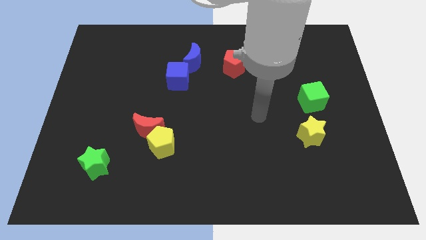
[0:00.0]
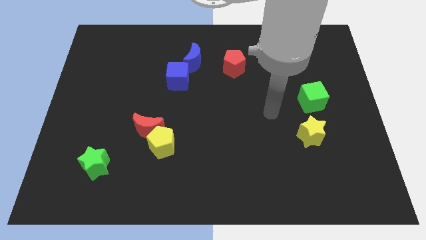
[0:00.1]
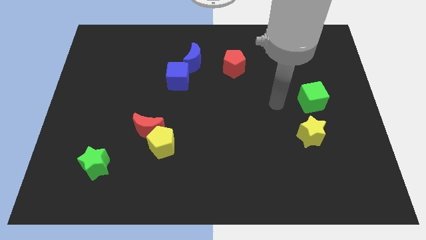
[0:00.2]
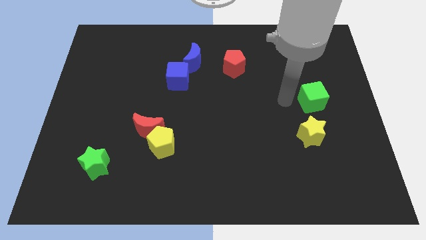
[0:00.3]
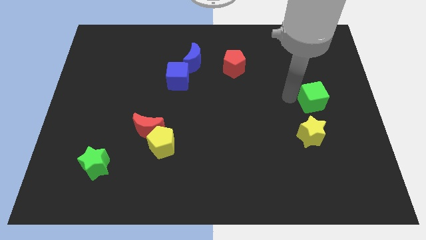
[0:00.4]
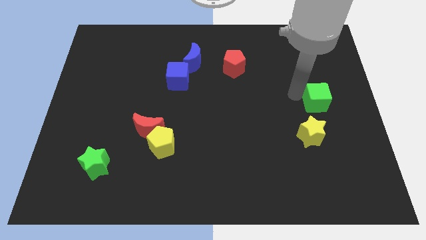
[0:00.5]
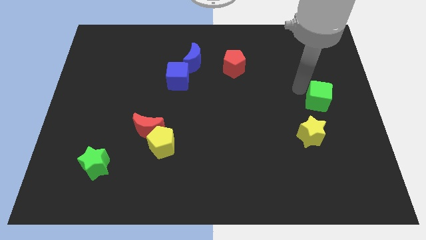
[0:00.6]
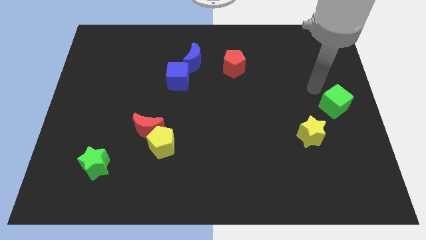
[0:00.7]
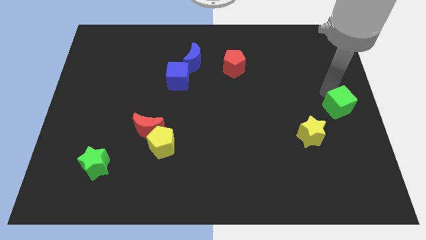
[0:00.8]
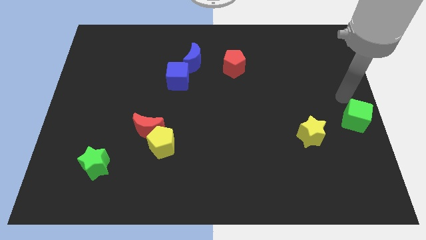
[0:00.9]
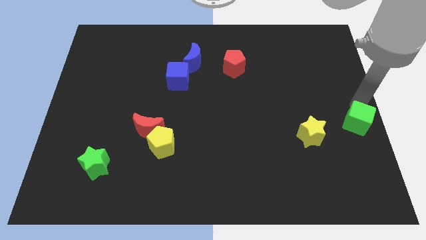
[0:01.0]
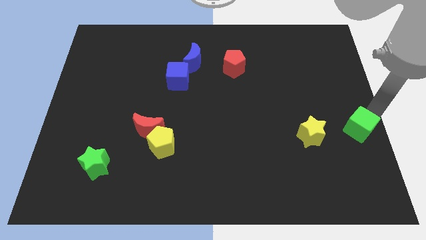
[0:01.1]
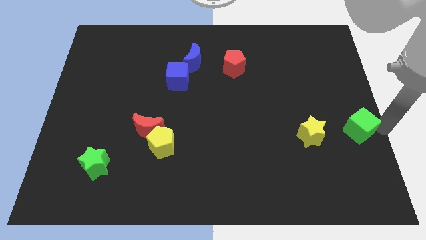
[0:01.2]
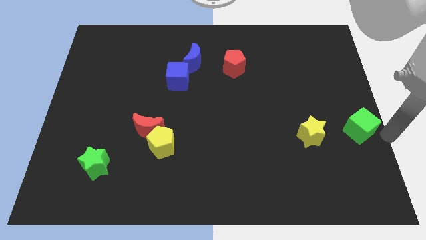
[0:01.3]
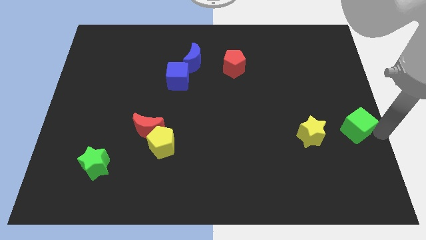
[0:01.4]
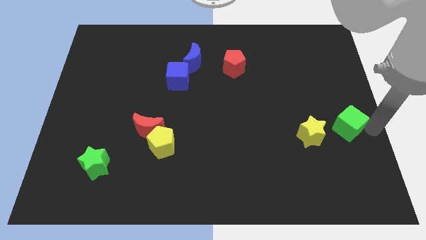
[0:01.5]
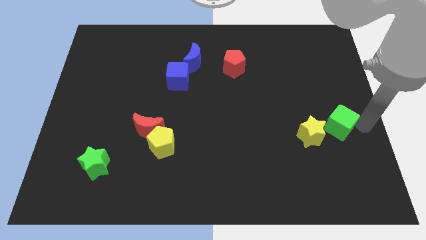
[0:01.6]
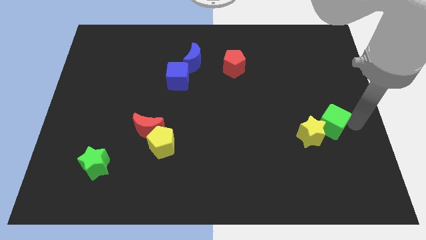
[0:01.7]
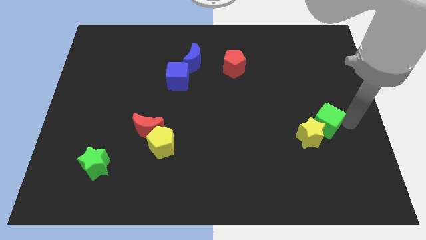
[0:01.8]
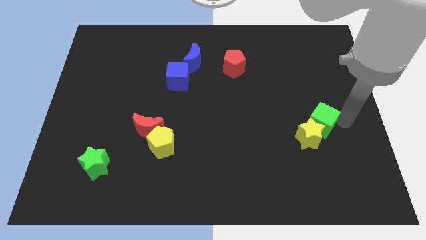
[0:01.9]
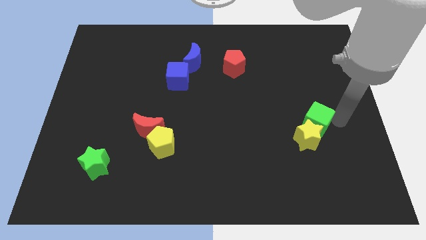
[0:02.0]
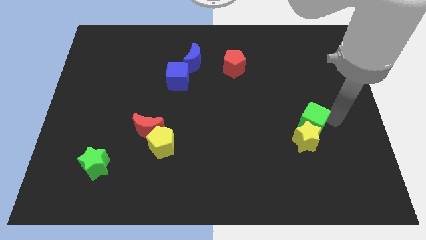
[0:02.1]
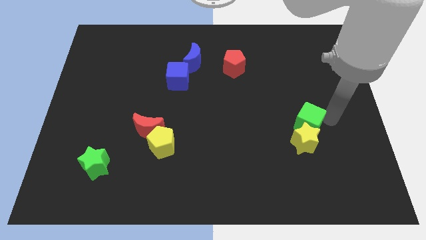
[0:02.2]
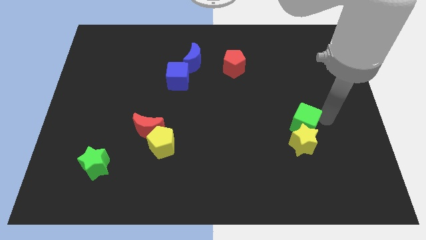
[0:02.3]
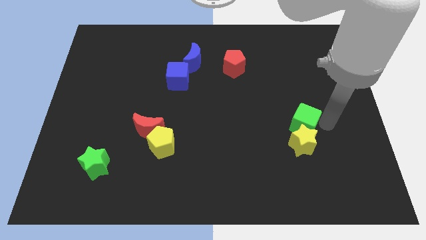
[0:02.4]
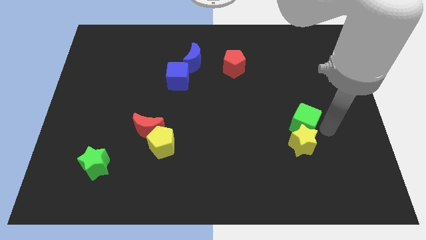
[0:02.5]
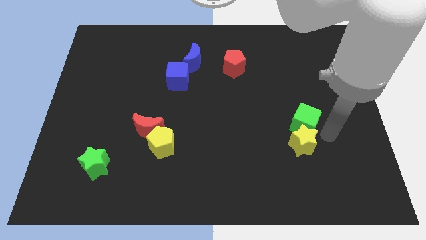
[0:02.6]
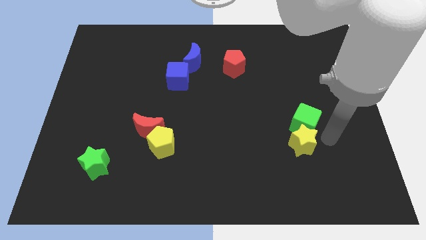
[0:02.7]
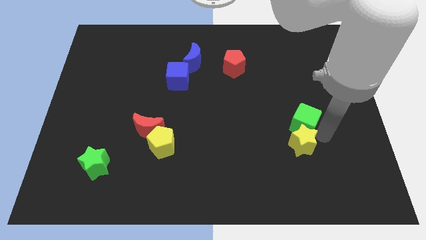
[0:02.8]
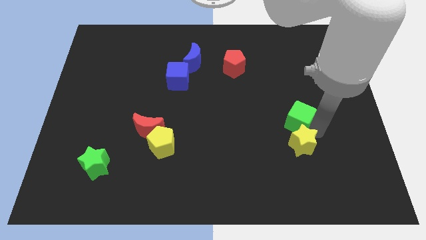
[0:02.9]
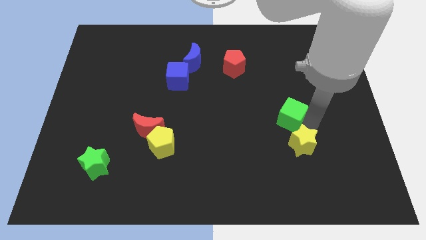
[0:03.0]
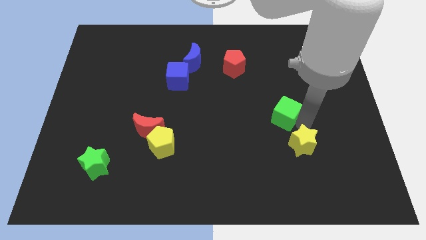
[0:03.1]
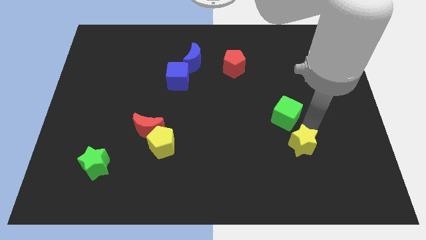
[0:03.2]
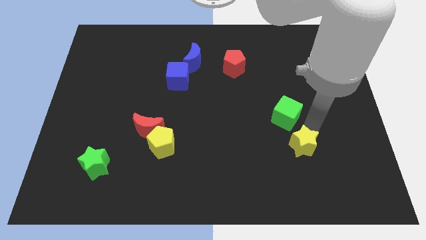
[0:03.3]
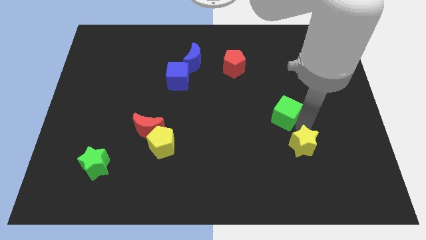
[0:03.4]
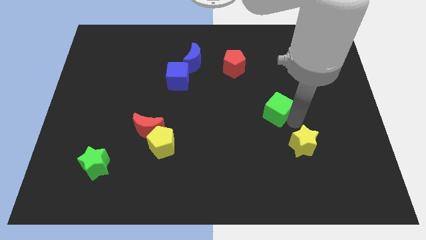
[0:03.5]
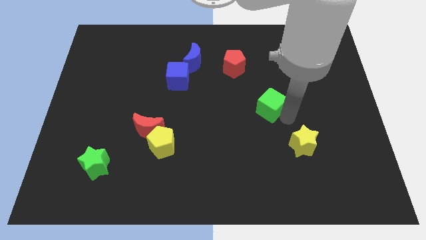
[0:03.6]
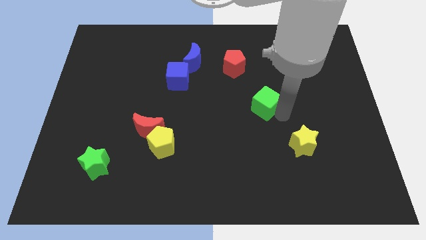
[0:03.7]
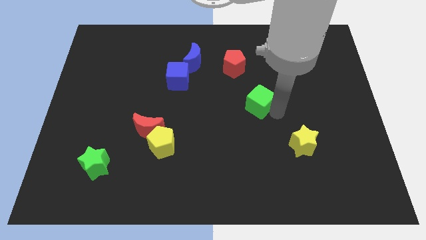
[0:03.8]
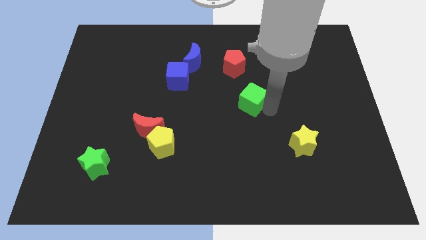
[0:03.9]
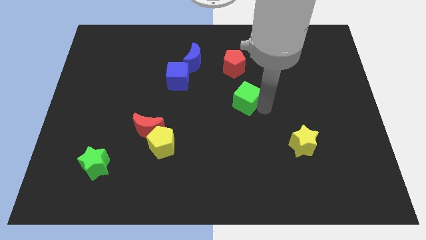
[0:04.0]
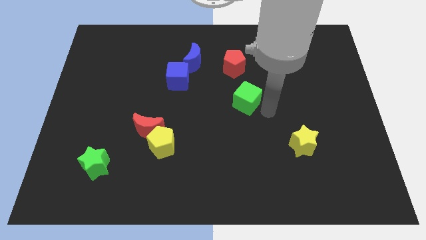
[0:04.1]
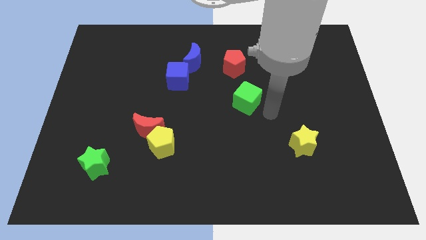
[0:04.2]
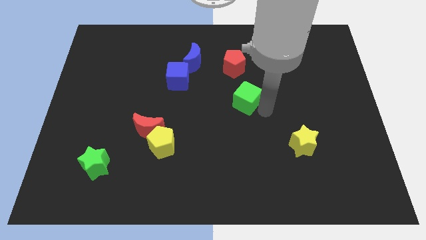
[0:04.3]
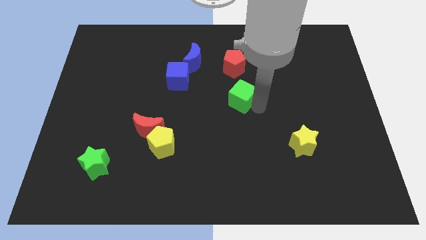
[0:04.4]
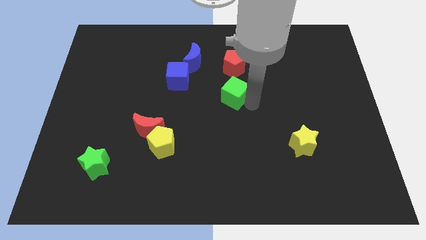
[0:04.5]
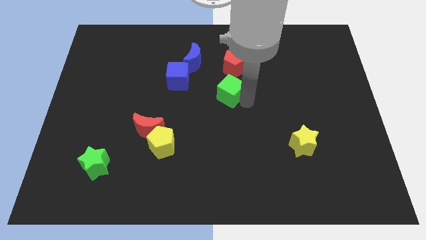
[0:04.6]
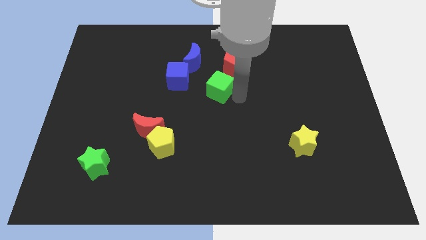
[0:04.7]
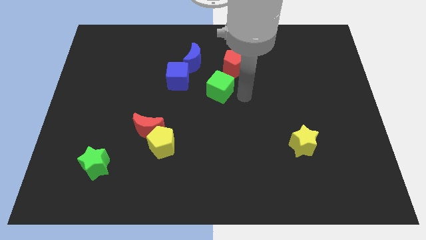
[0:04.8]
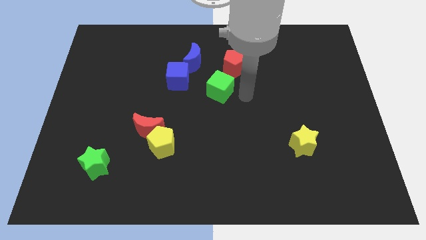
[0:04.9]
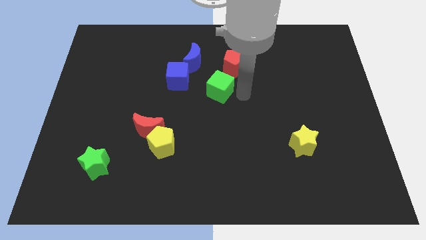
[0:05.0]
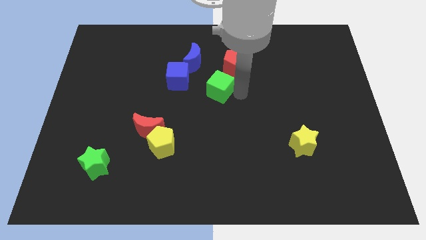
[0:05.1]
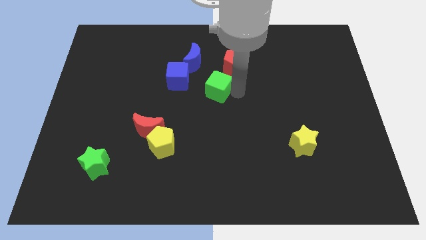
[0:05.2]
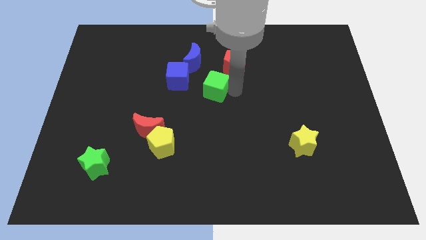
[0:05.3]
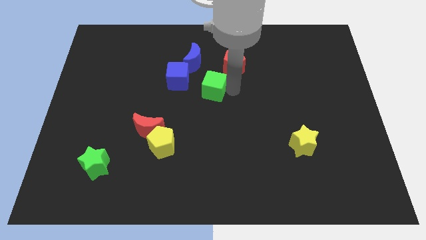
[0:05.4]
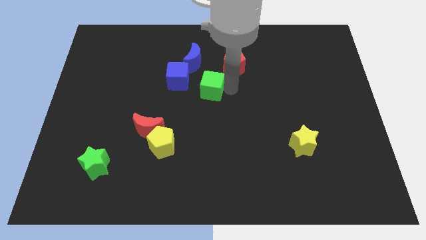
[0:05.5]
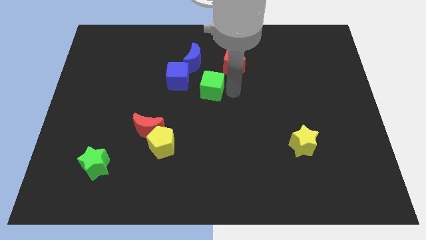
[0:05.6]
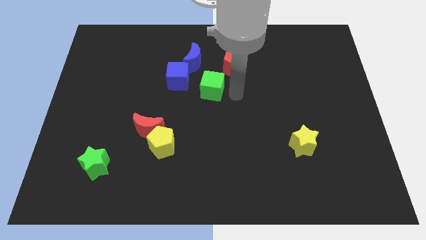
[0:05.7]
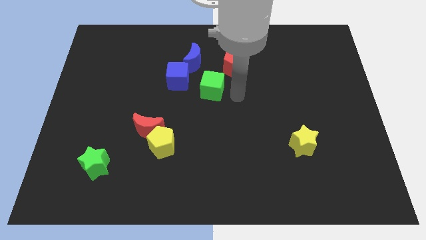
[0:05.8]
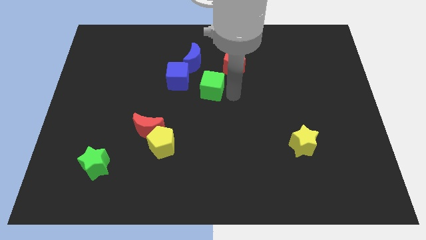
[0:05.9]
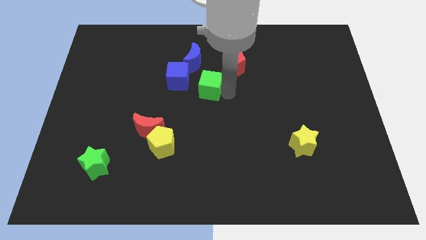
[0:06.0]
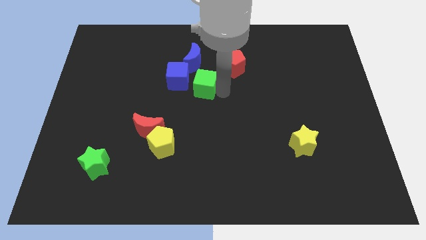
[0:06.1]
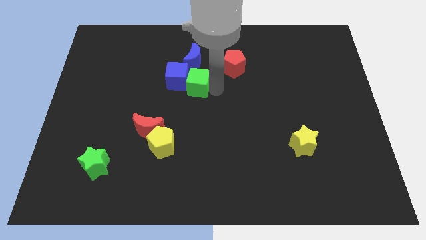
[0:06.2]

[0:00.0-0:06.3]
put the green cube to the blue cube
